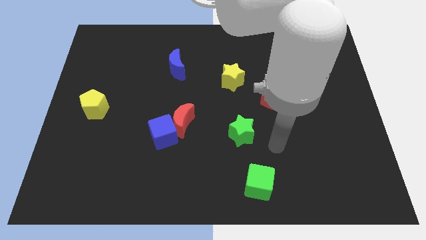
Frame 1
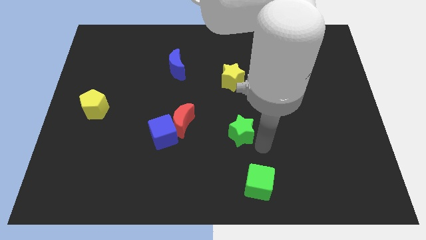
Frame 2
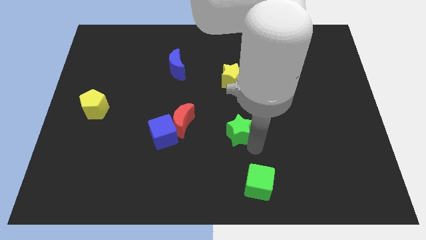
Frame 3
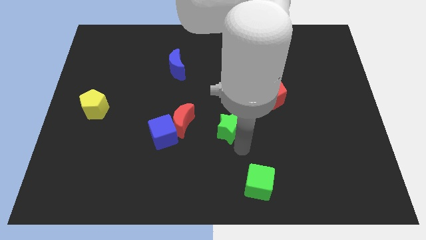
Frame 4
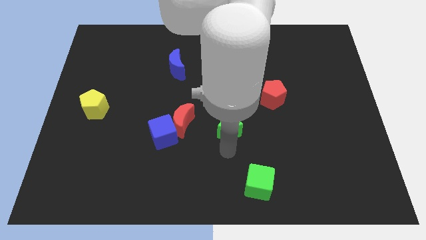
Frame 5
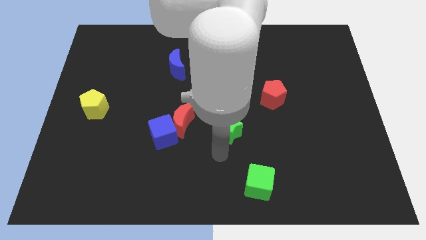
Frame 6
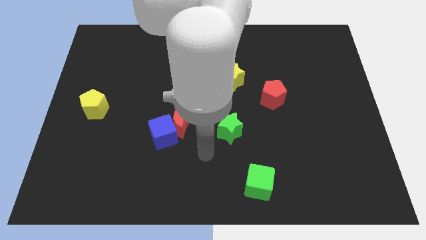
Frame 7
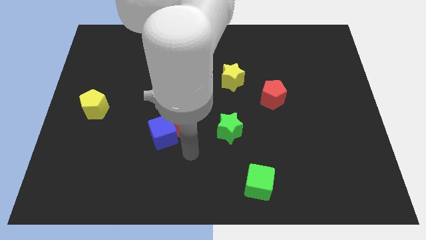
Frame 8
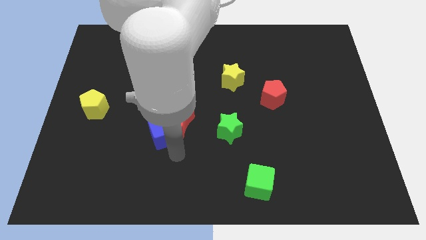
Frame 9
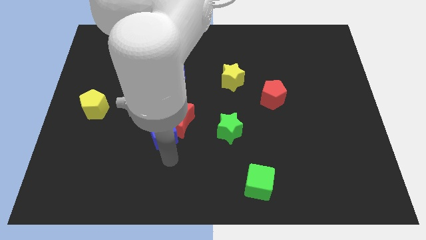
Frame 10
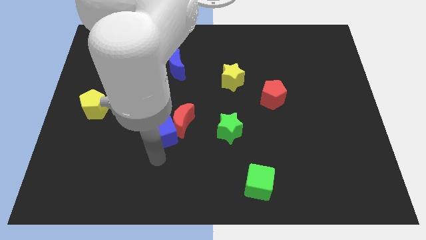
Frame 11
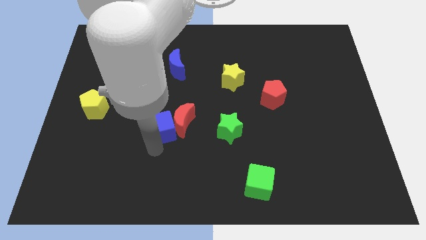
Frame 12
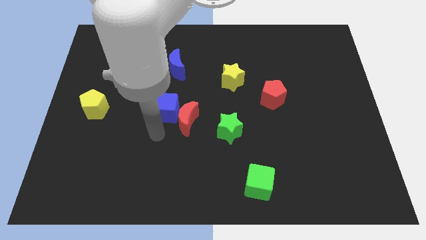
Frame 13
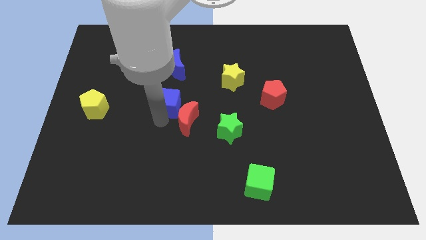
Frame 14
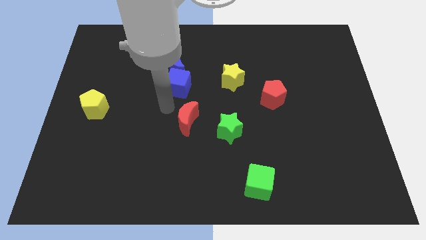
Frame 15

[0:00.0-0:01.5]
separate the red moon from the blue cube

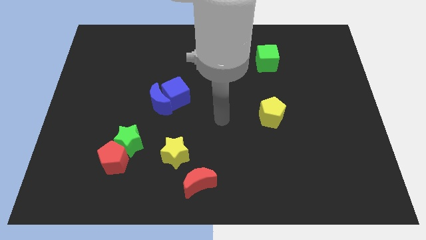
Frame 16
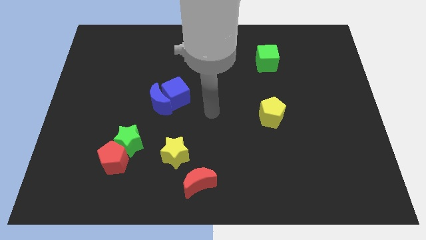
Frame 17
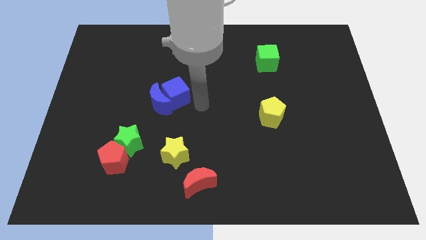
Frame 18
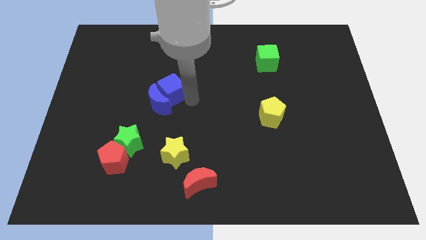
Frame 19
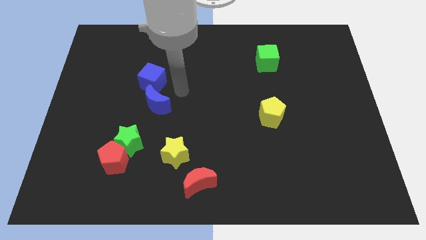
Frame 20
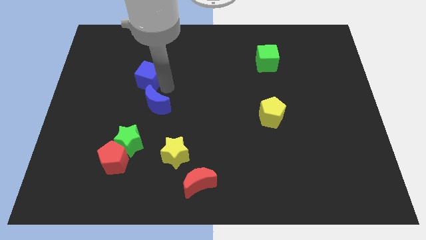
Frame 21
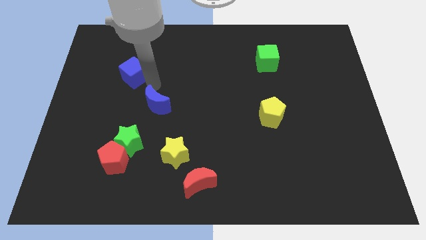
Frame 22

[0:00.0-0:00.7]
move the blue moon away from the blue cube

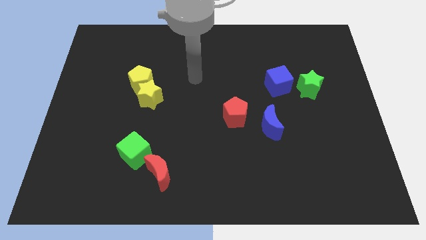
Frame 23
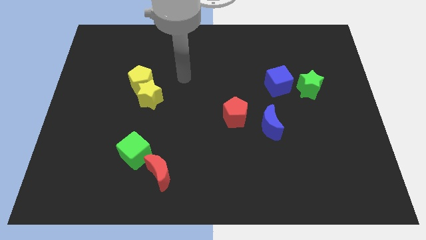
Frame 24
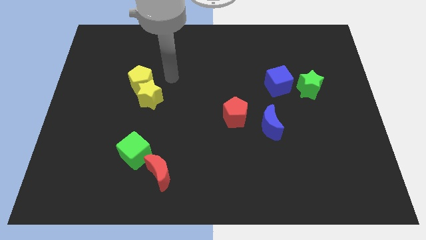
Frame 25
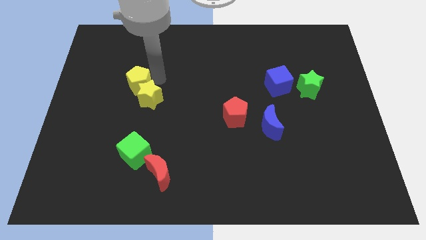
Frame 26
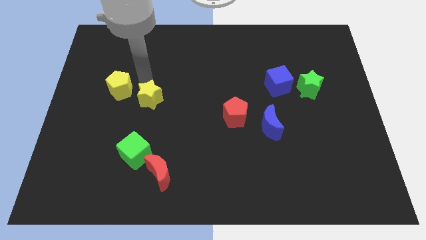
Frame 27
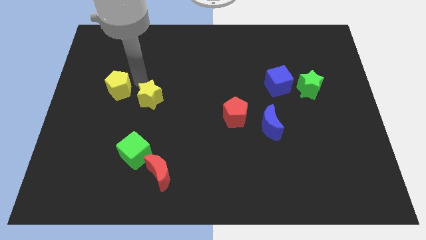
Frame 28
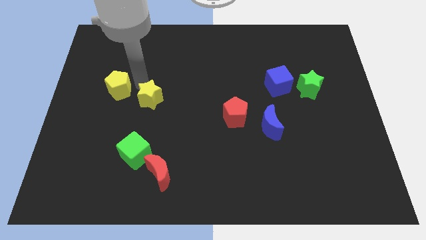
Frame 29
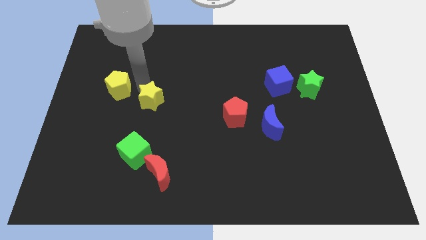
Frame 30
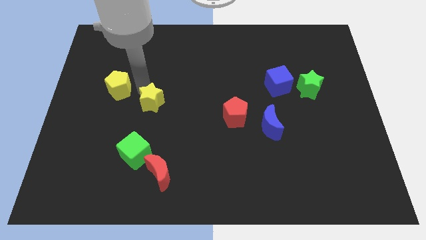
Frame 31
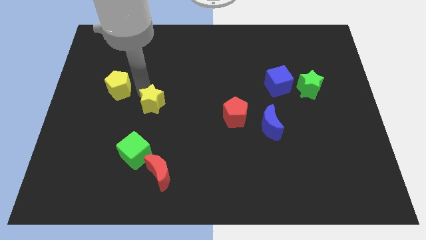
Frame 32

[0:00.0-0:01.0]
separate the yellow star from the yellow pentagon

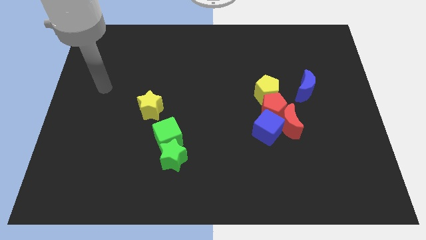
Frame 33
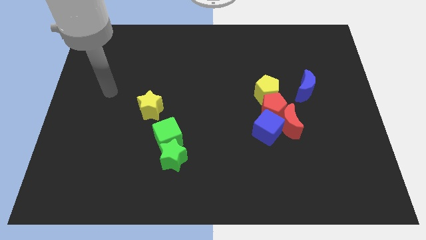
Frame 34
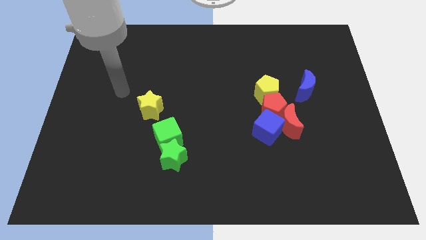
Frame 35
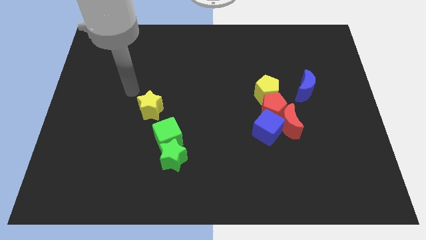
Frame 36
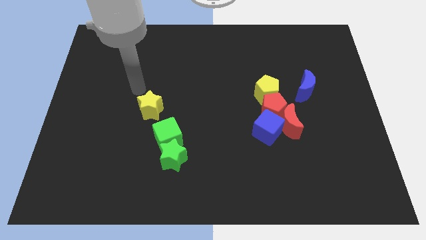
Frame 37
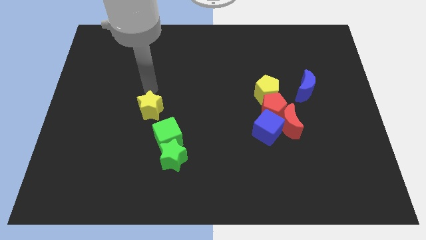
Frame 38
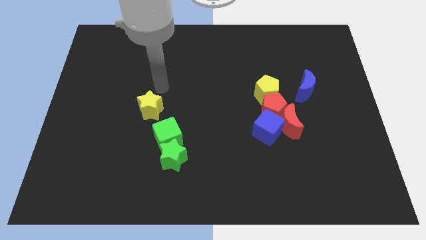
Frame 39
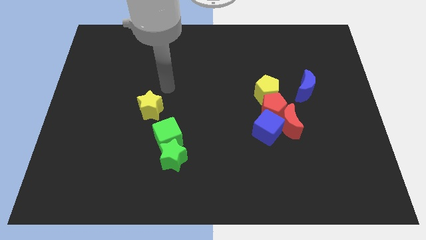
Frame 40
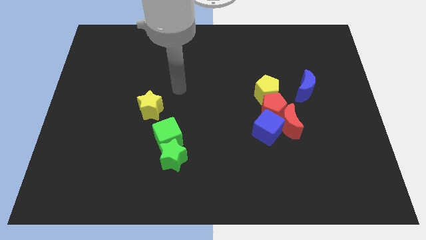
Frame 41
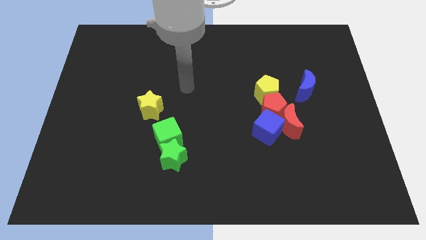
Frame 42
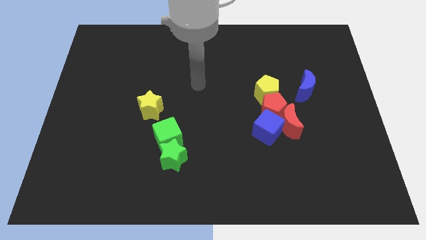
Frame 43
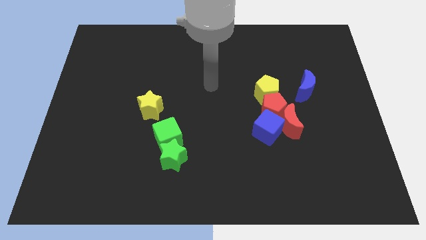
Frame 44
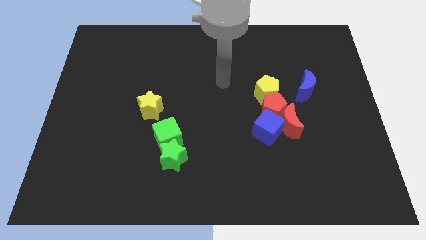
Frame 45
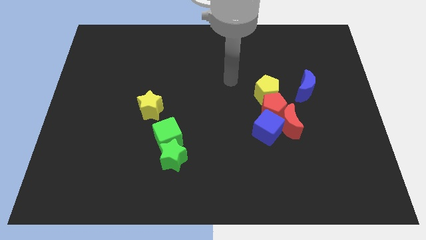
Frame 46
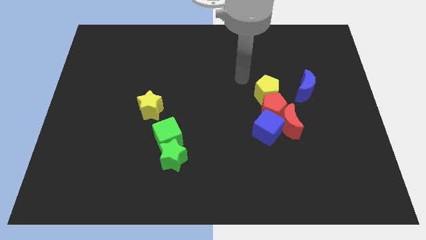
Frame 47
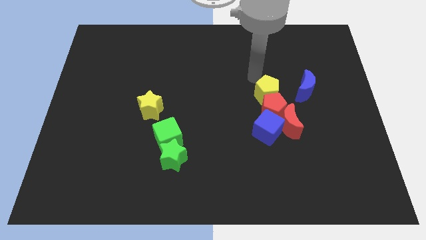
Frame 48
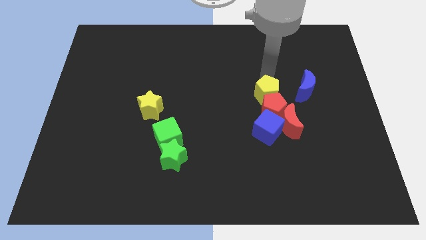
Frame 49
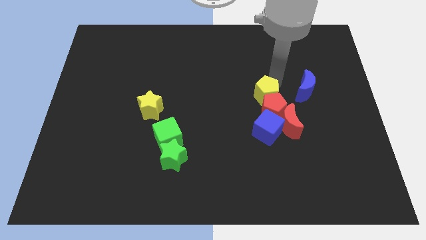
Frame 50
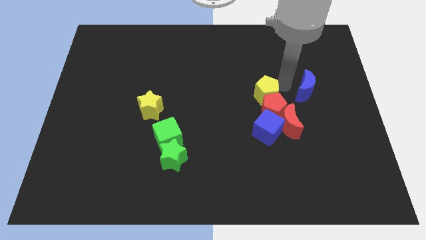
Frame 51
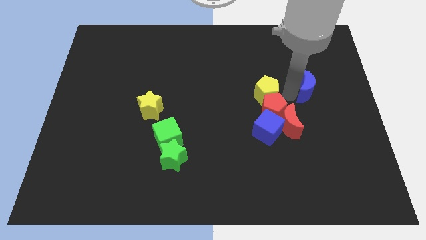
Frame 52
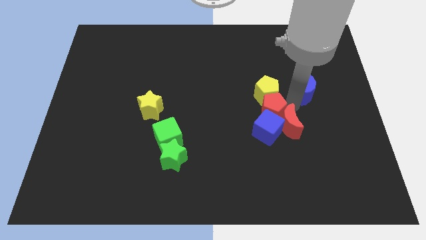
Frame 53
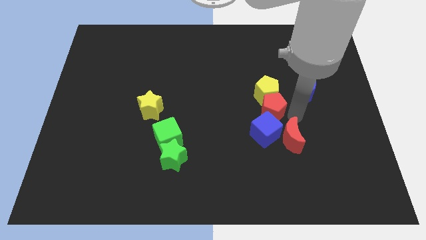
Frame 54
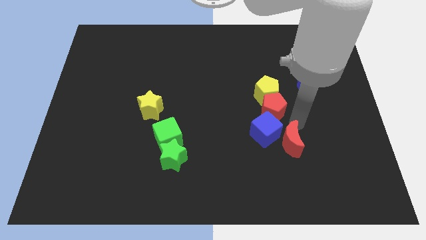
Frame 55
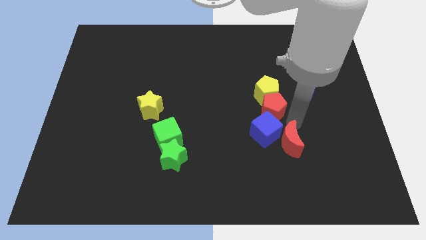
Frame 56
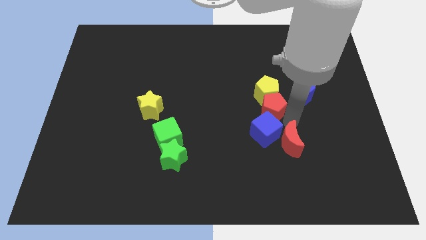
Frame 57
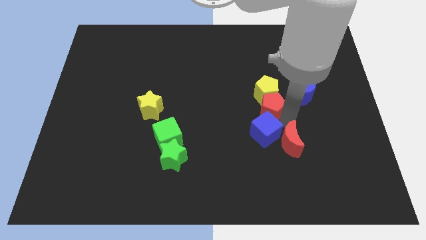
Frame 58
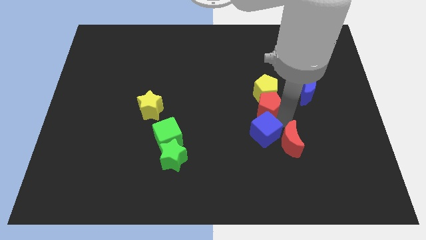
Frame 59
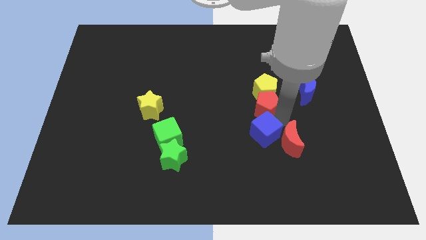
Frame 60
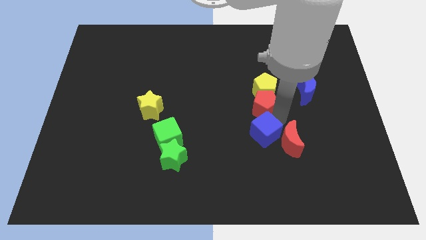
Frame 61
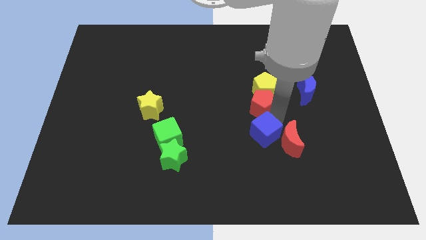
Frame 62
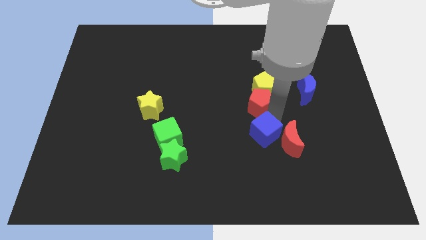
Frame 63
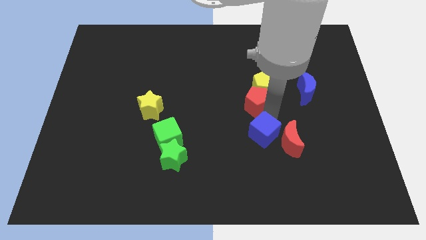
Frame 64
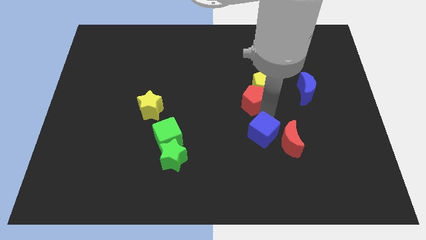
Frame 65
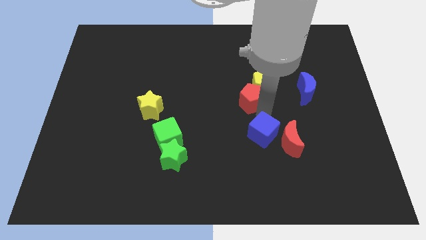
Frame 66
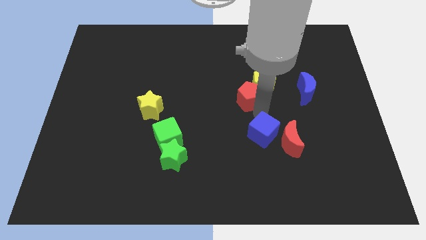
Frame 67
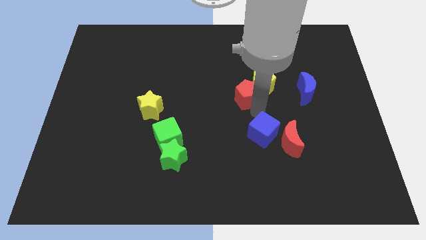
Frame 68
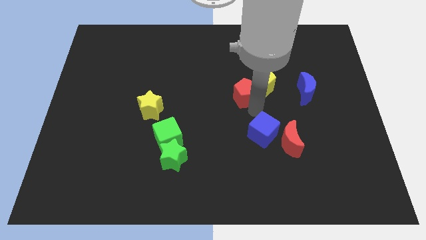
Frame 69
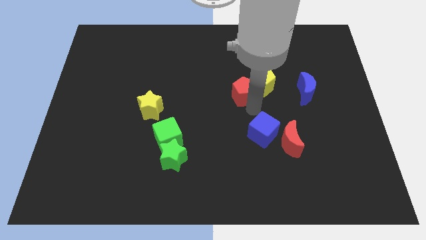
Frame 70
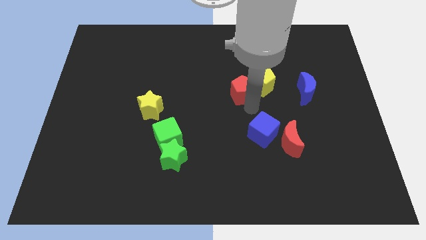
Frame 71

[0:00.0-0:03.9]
move the red pentagon away from the clump

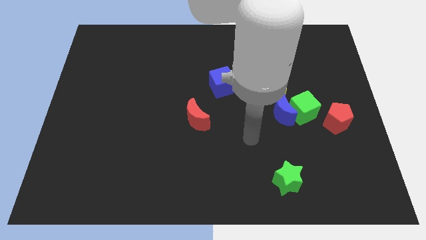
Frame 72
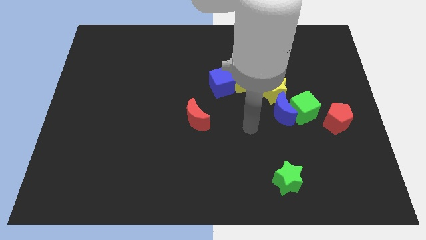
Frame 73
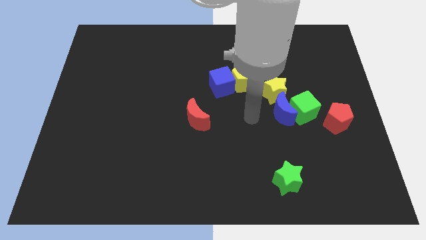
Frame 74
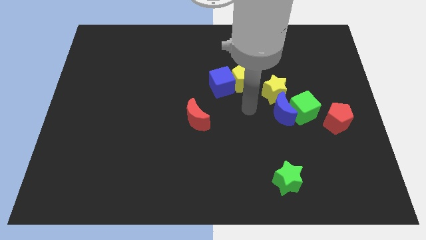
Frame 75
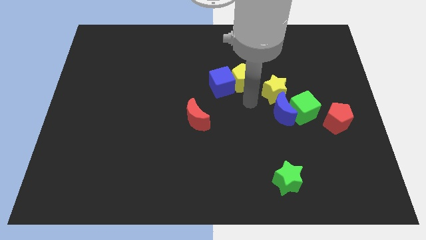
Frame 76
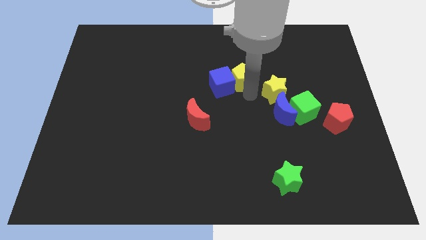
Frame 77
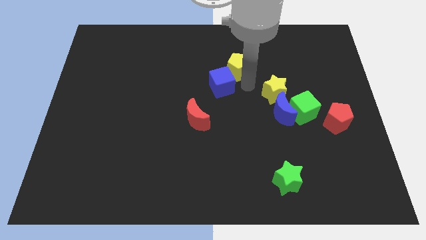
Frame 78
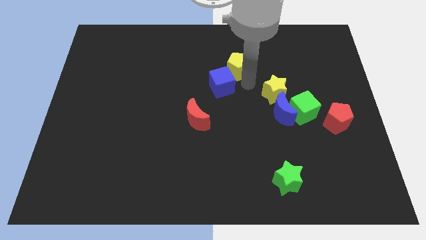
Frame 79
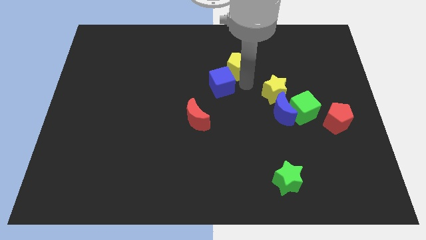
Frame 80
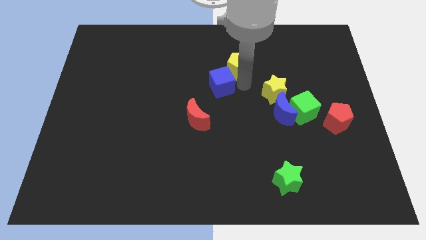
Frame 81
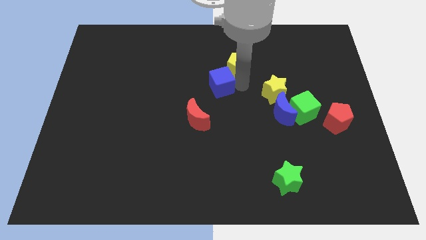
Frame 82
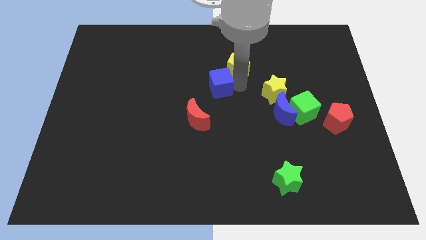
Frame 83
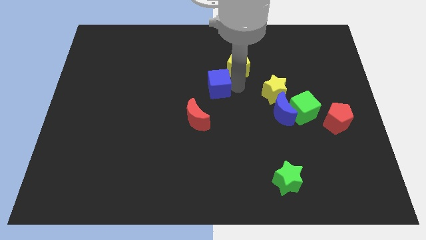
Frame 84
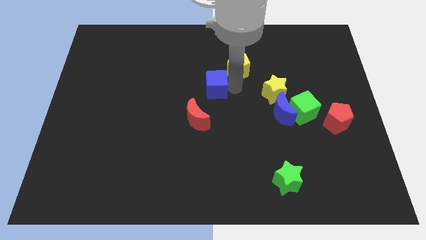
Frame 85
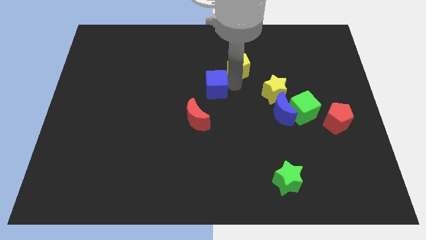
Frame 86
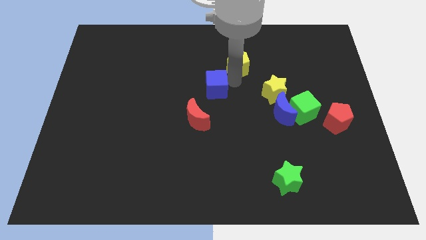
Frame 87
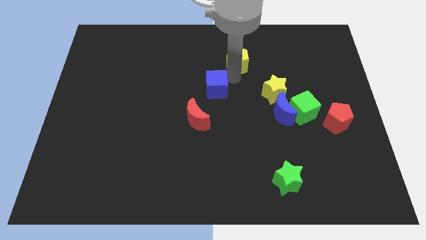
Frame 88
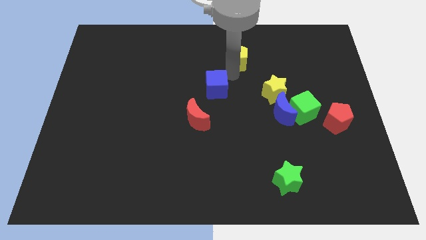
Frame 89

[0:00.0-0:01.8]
separate the blue cube from the yellow pentagon

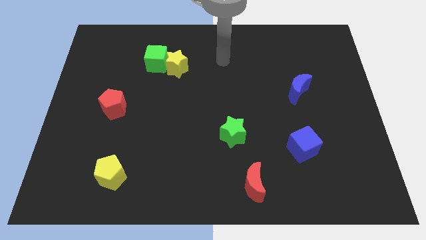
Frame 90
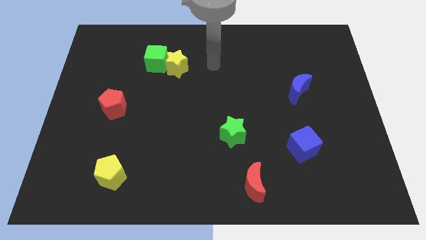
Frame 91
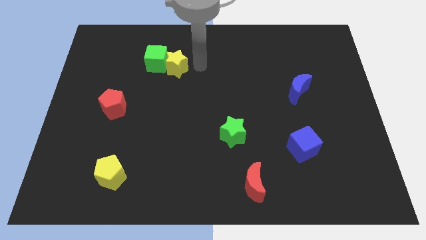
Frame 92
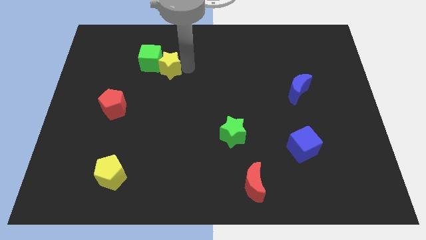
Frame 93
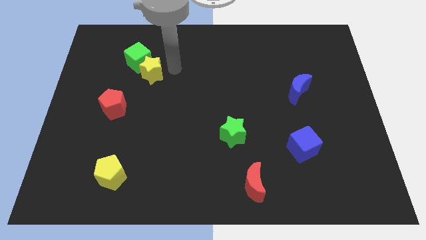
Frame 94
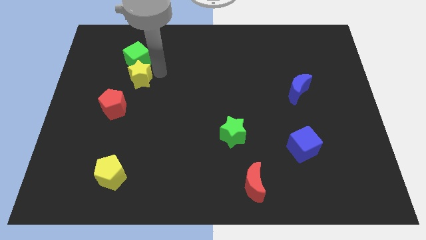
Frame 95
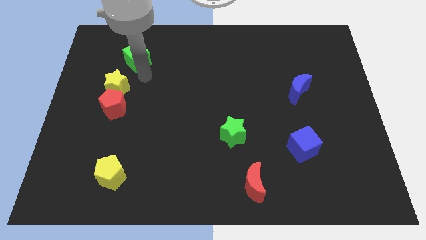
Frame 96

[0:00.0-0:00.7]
pull the green cube apart from the yellow star
